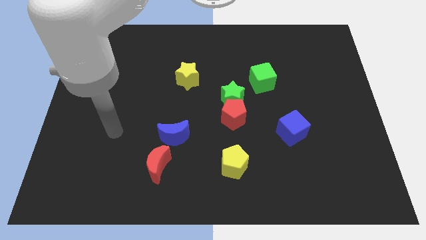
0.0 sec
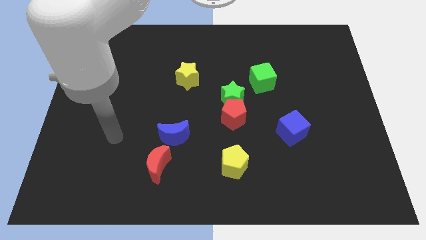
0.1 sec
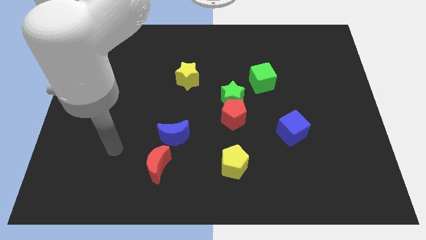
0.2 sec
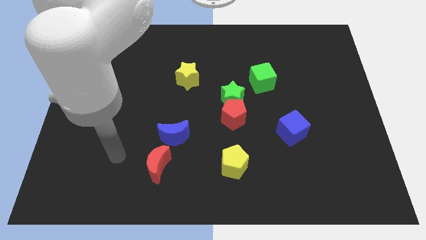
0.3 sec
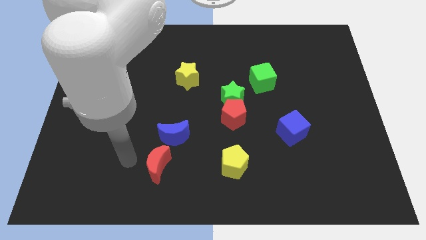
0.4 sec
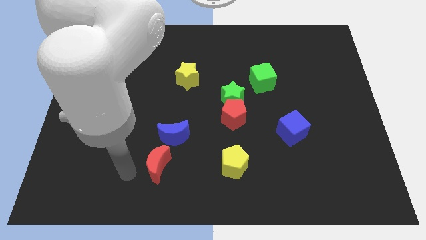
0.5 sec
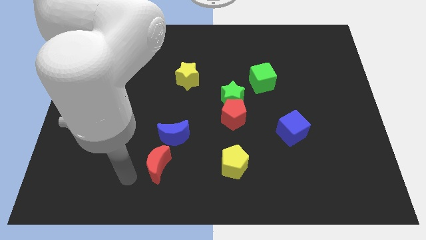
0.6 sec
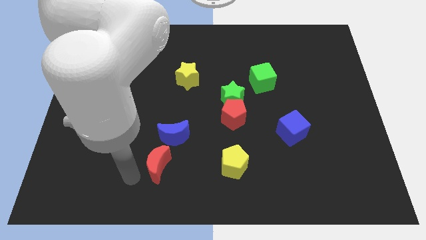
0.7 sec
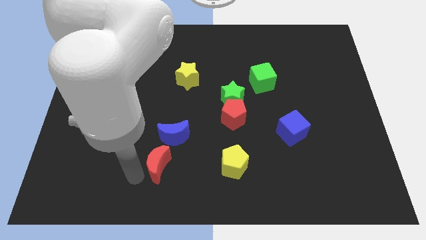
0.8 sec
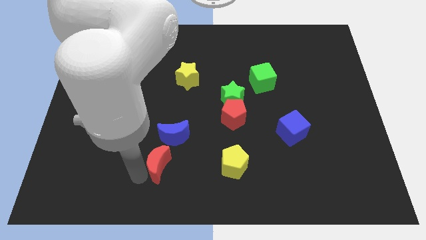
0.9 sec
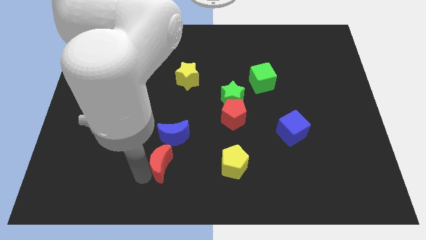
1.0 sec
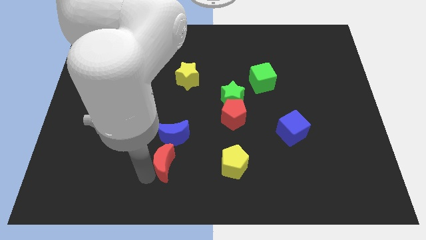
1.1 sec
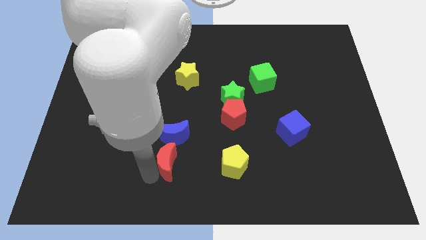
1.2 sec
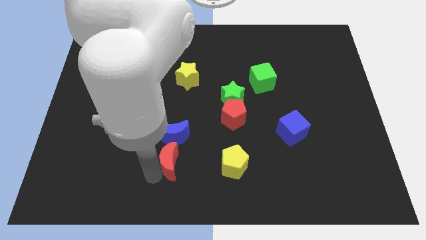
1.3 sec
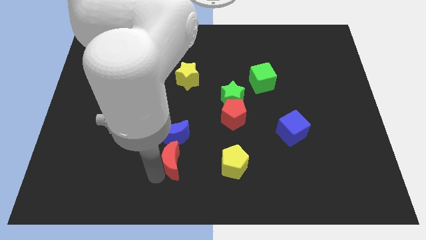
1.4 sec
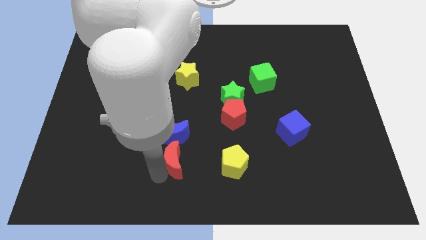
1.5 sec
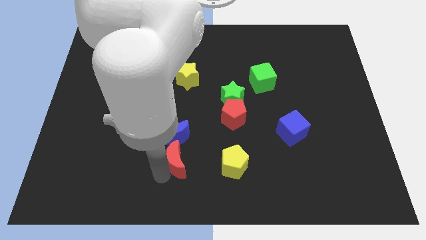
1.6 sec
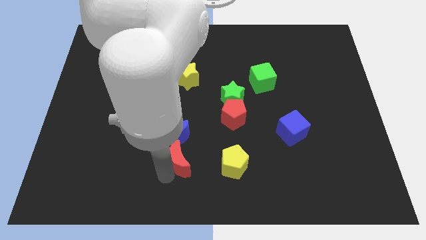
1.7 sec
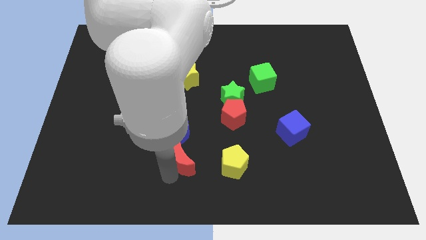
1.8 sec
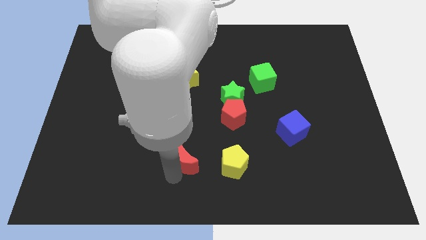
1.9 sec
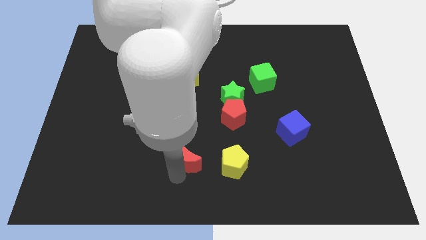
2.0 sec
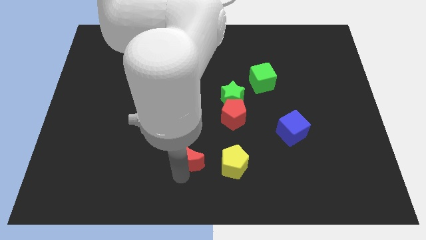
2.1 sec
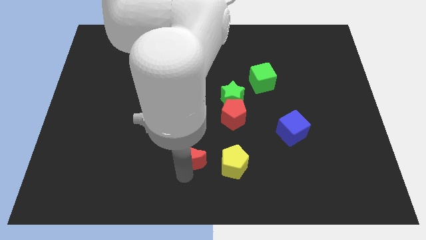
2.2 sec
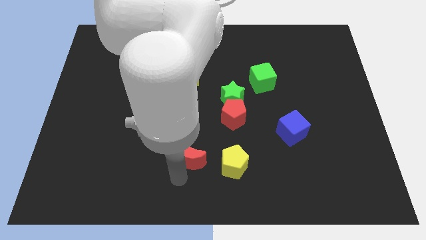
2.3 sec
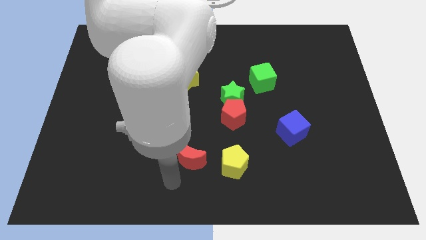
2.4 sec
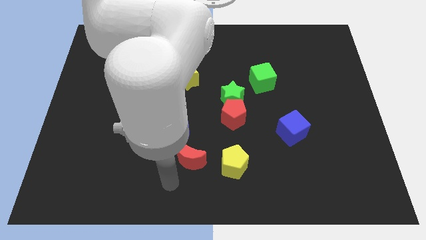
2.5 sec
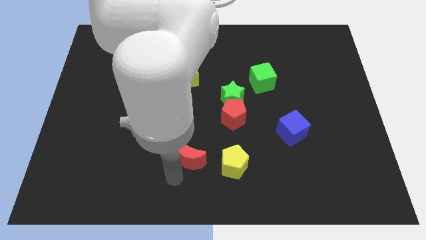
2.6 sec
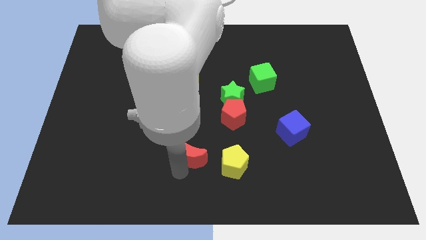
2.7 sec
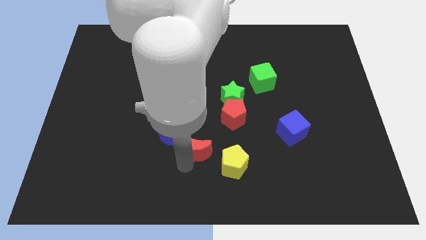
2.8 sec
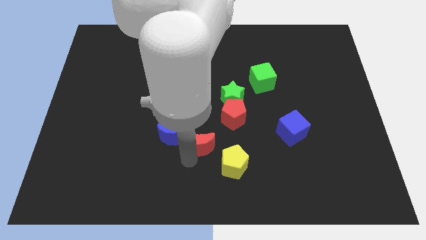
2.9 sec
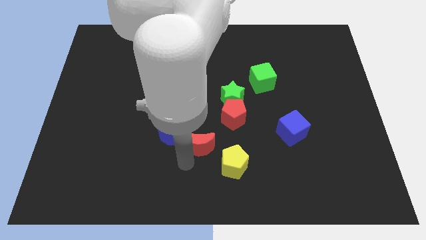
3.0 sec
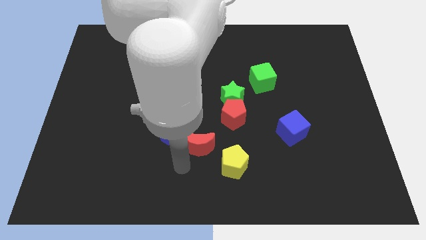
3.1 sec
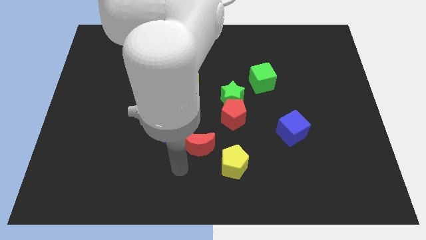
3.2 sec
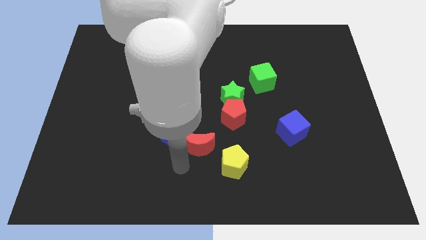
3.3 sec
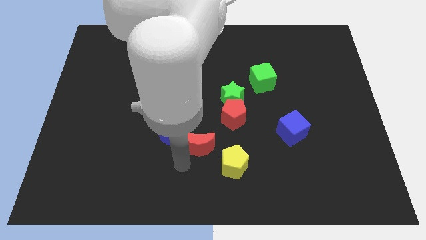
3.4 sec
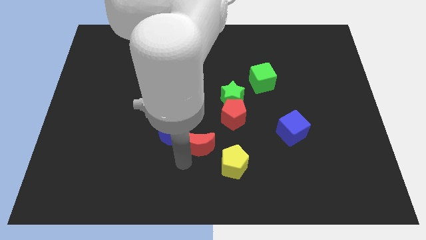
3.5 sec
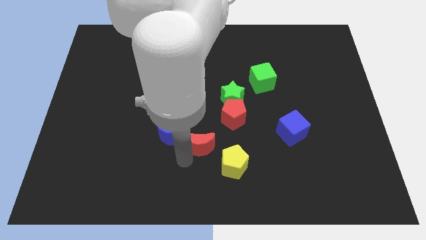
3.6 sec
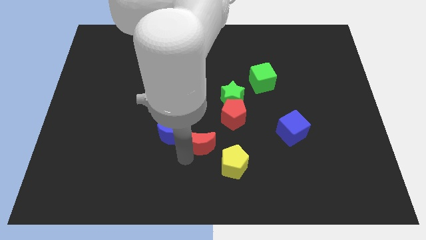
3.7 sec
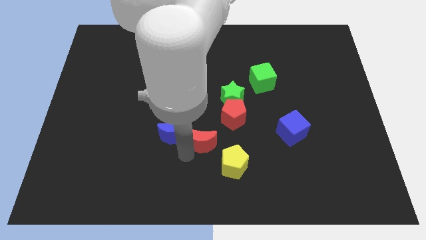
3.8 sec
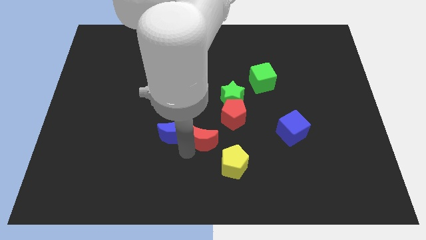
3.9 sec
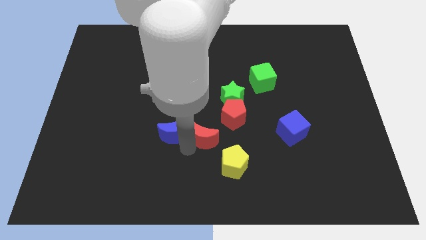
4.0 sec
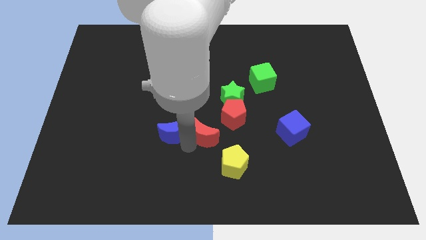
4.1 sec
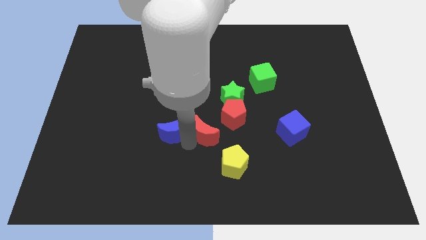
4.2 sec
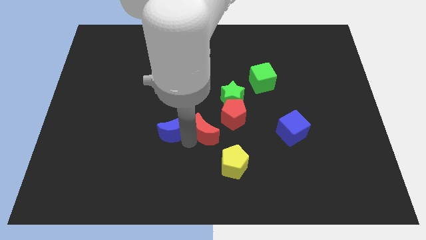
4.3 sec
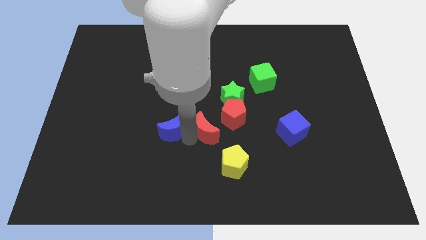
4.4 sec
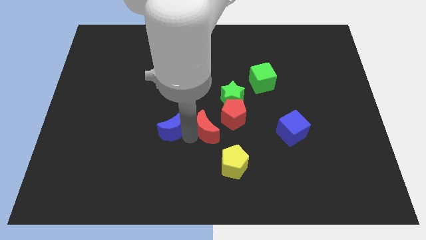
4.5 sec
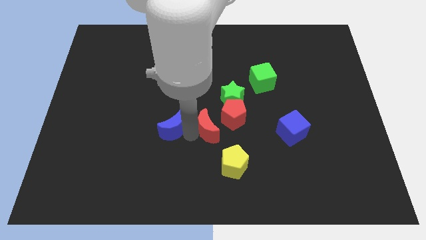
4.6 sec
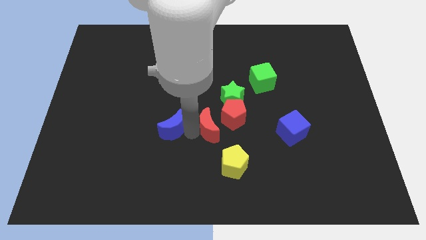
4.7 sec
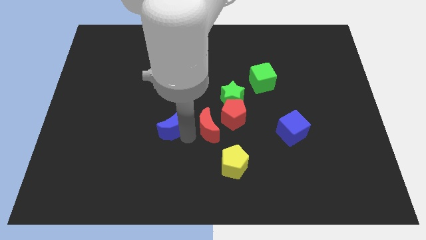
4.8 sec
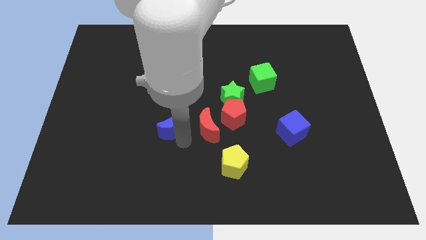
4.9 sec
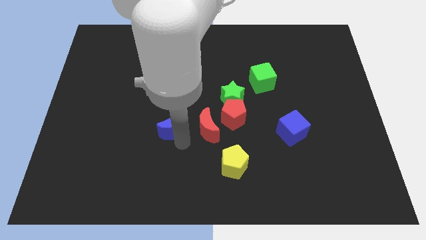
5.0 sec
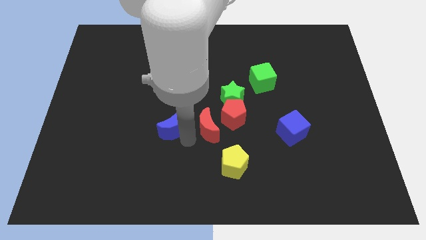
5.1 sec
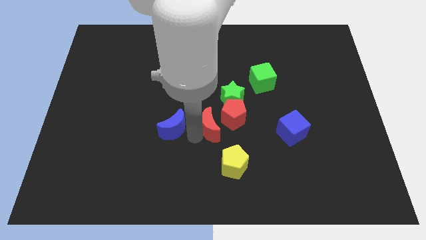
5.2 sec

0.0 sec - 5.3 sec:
put the red moon close to the red pentagon

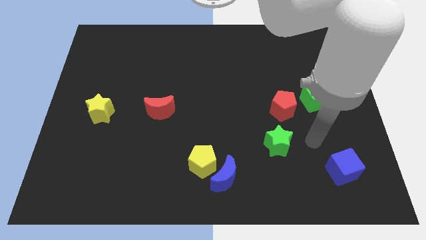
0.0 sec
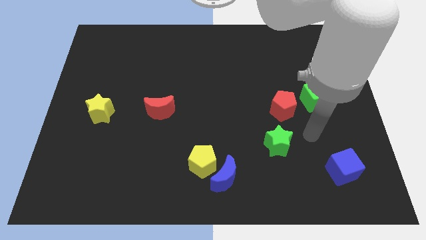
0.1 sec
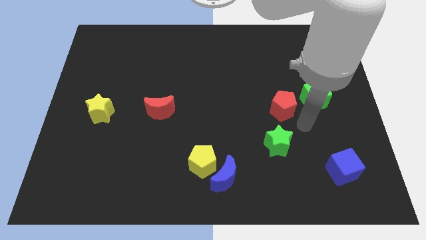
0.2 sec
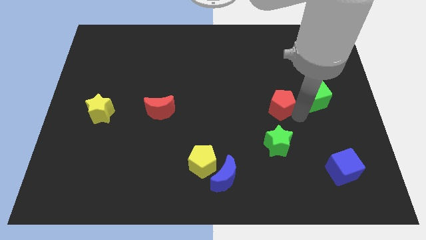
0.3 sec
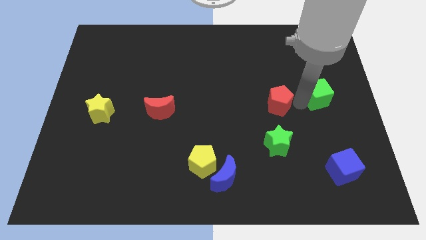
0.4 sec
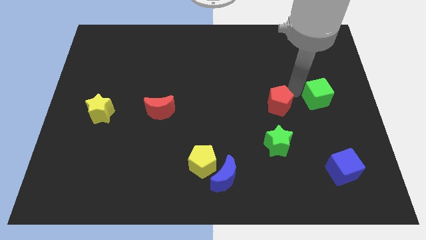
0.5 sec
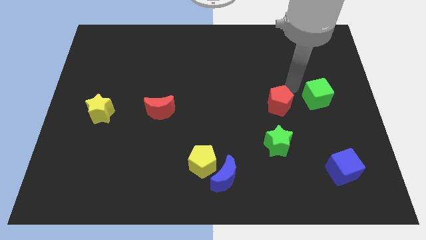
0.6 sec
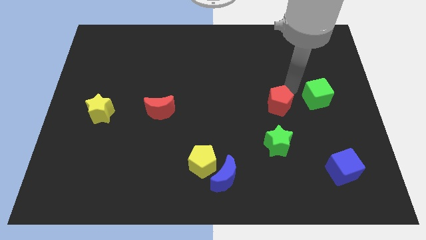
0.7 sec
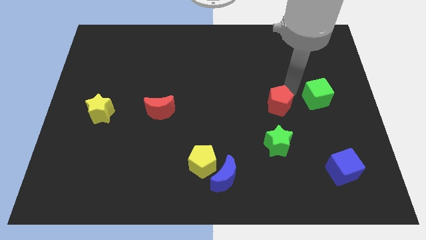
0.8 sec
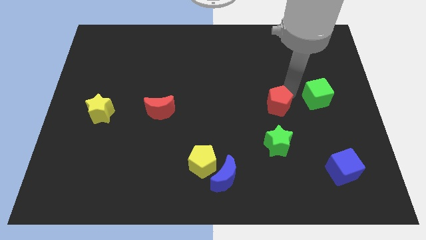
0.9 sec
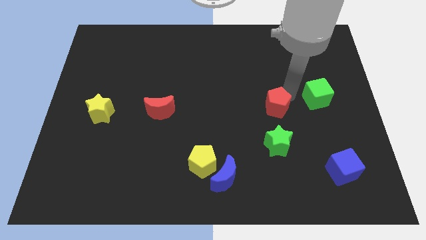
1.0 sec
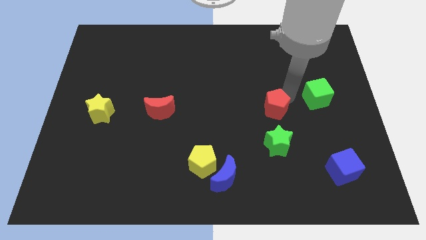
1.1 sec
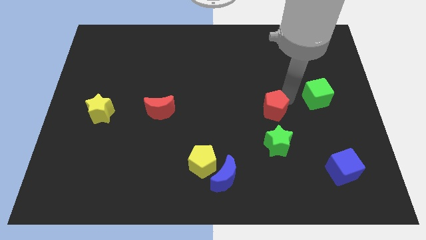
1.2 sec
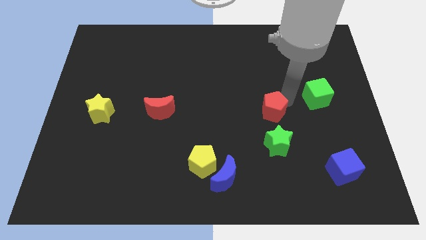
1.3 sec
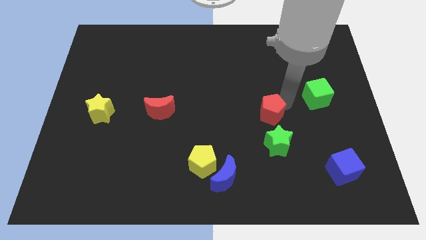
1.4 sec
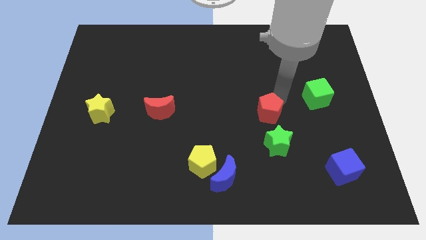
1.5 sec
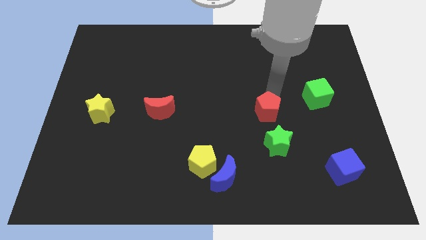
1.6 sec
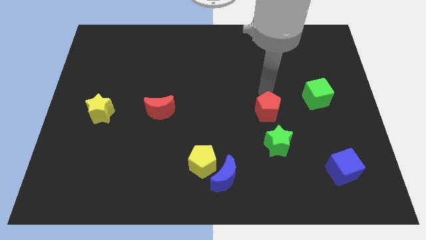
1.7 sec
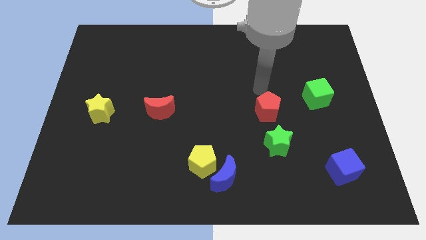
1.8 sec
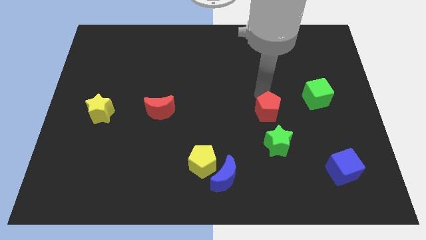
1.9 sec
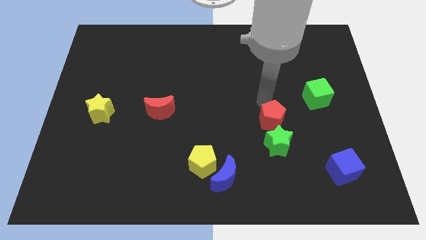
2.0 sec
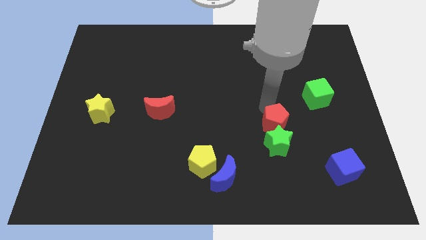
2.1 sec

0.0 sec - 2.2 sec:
put the red pentagon close to the green star

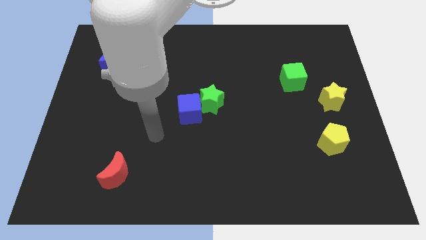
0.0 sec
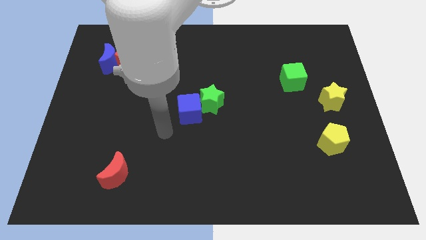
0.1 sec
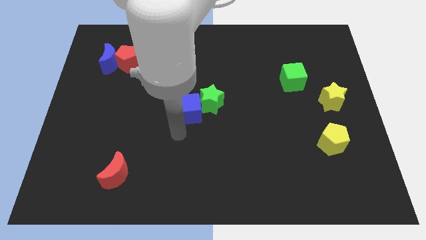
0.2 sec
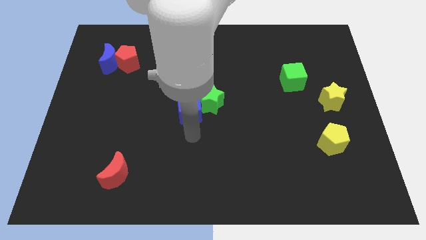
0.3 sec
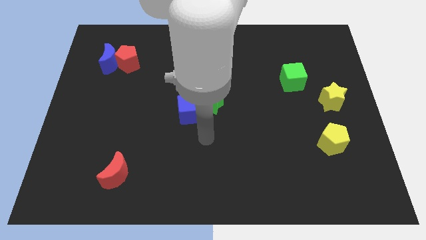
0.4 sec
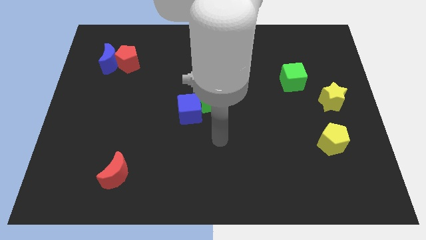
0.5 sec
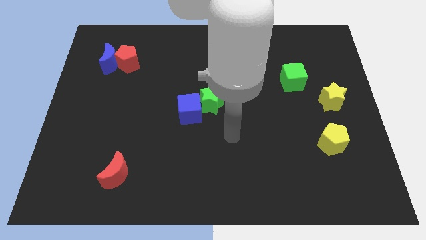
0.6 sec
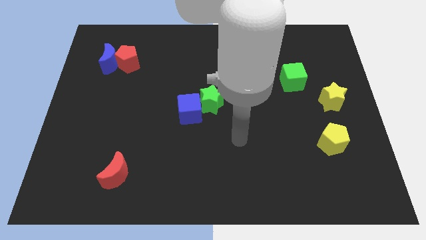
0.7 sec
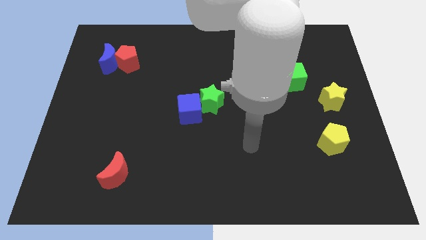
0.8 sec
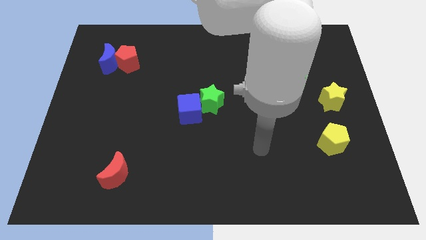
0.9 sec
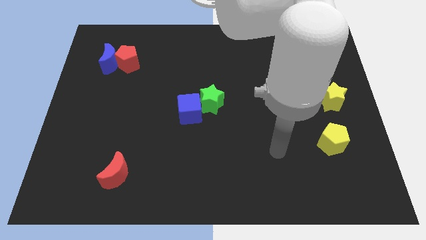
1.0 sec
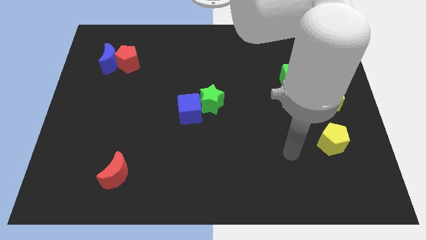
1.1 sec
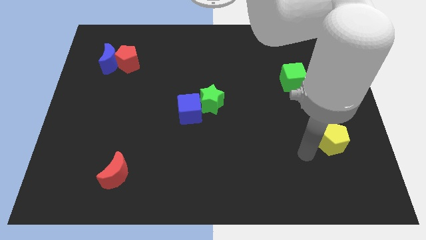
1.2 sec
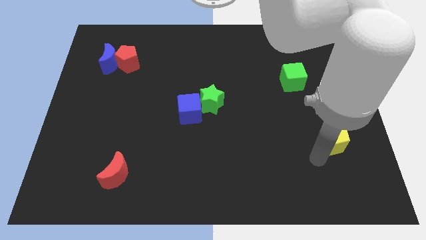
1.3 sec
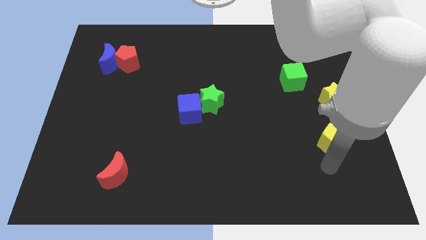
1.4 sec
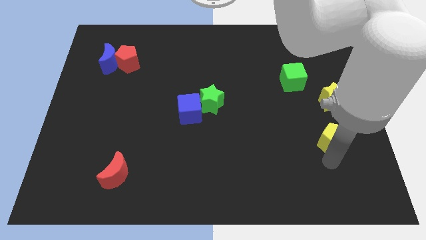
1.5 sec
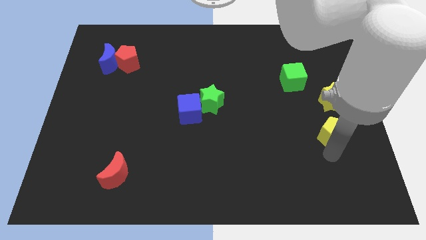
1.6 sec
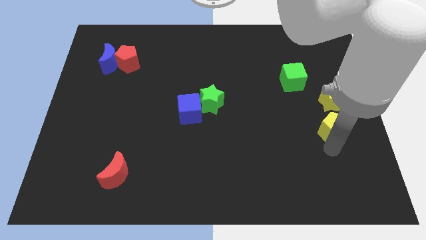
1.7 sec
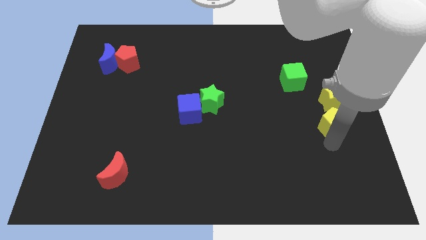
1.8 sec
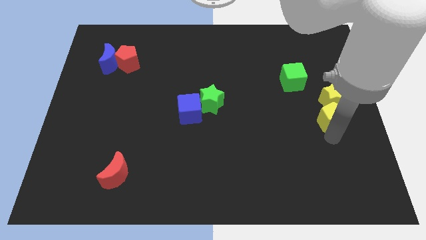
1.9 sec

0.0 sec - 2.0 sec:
slide the yellow pentagon to the yellow star
